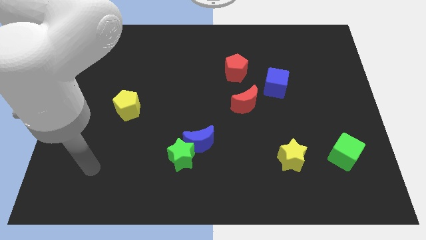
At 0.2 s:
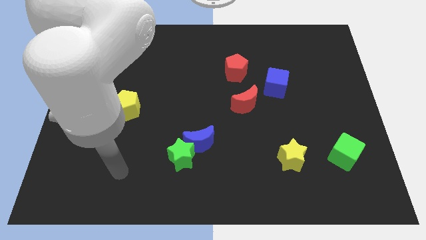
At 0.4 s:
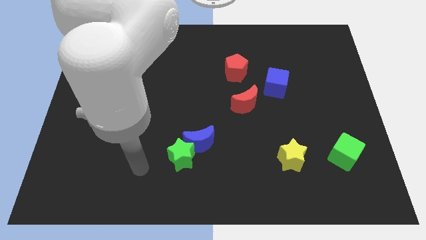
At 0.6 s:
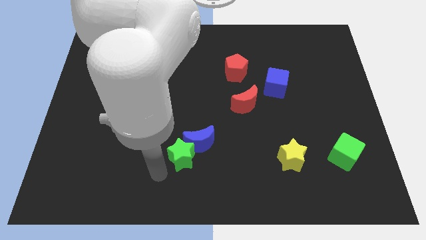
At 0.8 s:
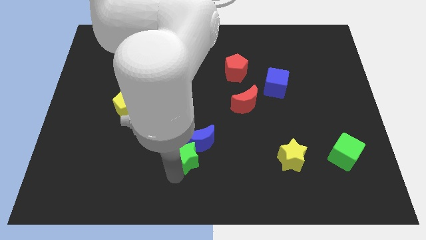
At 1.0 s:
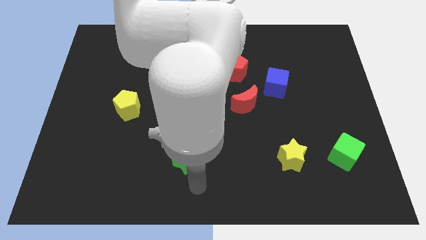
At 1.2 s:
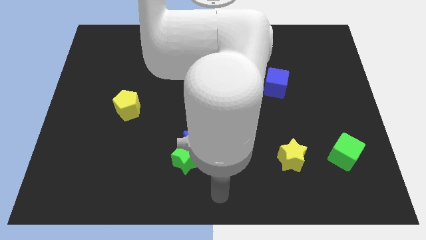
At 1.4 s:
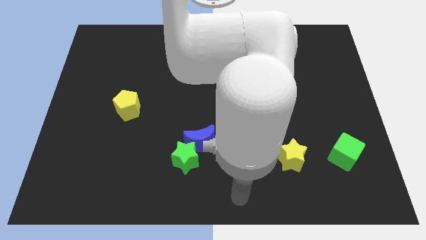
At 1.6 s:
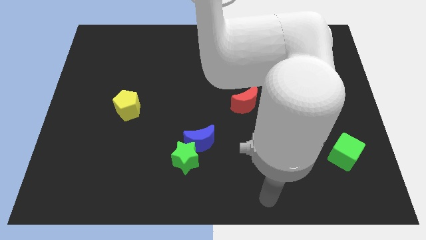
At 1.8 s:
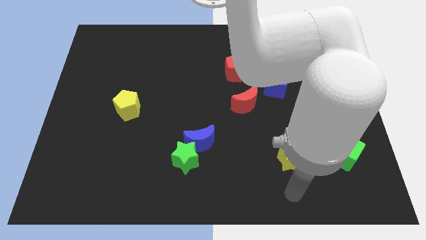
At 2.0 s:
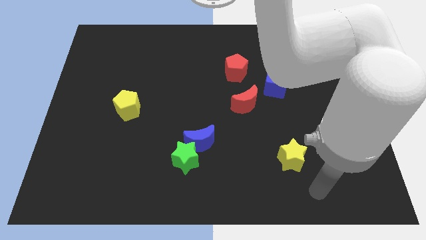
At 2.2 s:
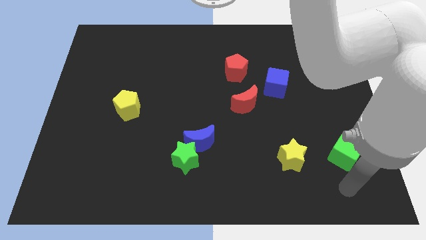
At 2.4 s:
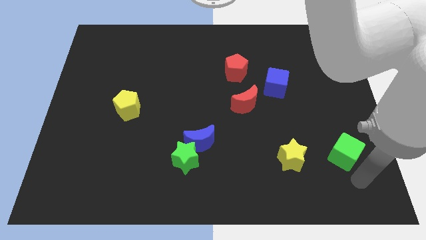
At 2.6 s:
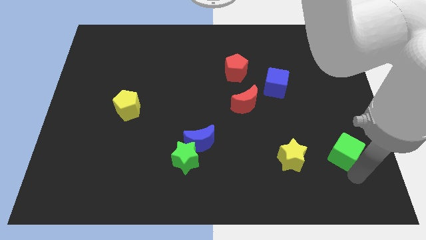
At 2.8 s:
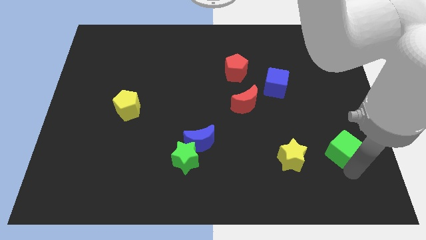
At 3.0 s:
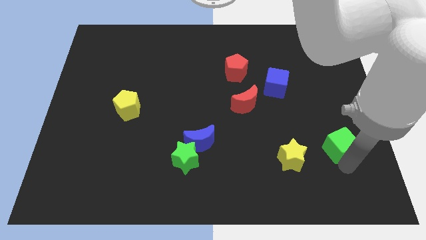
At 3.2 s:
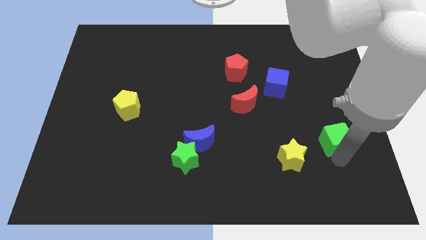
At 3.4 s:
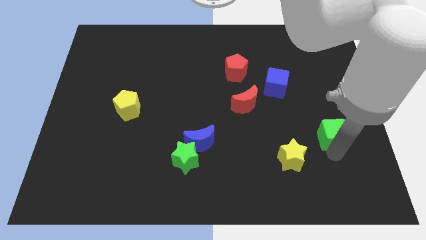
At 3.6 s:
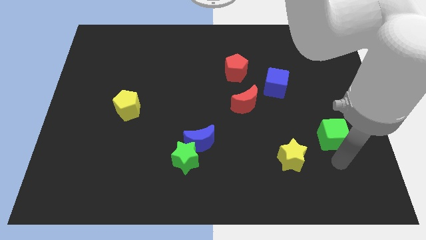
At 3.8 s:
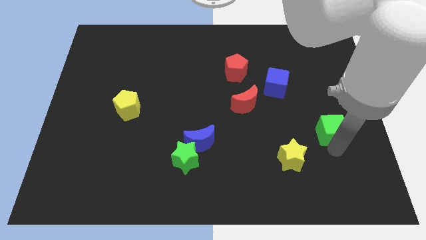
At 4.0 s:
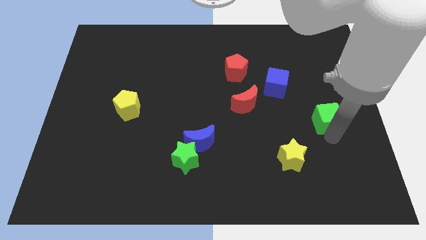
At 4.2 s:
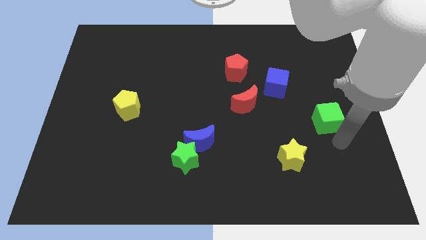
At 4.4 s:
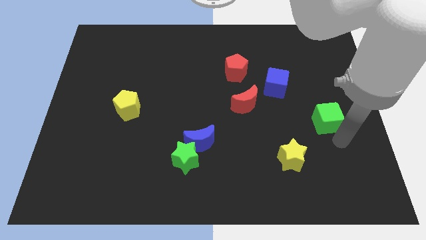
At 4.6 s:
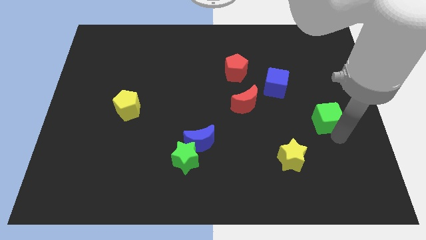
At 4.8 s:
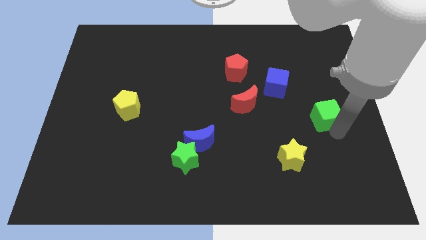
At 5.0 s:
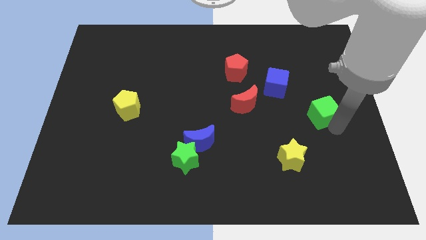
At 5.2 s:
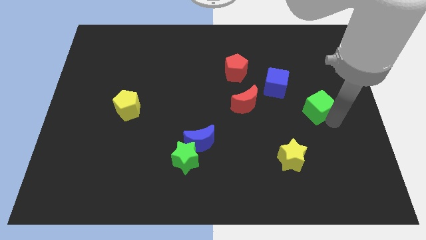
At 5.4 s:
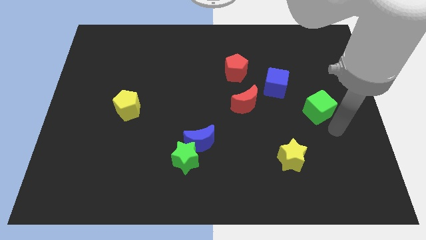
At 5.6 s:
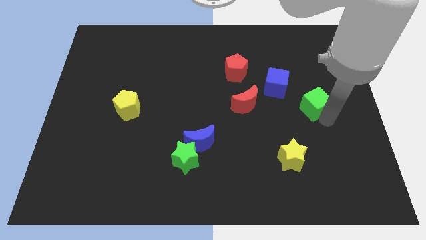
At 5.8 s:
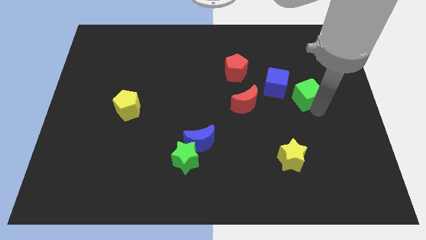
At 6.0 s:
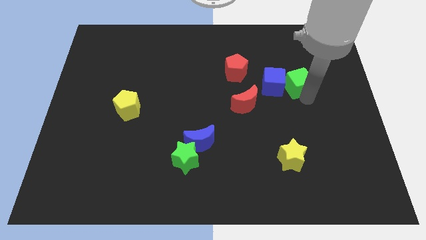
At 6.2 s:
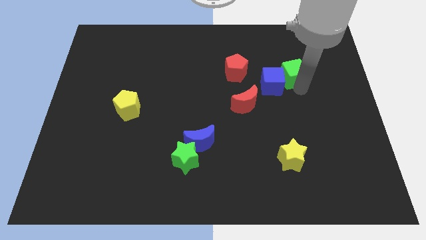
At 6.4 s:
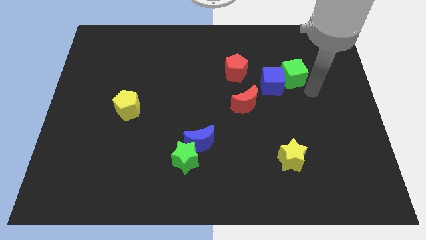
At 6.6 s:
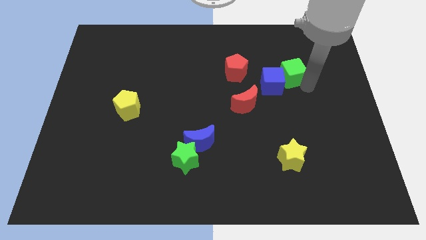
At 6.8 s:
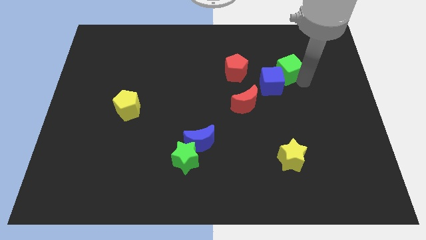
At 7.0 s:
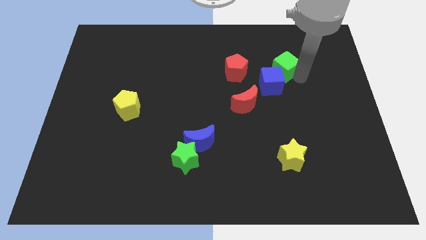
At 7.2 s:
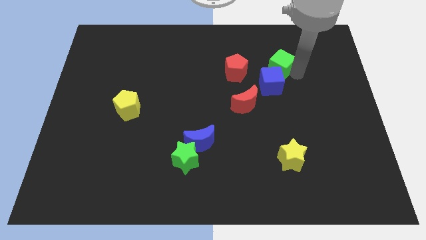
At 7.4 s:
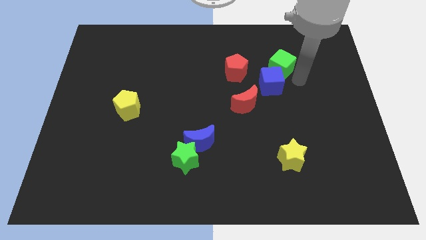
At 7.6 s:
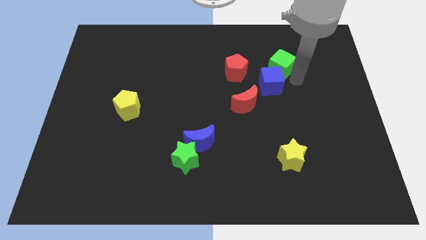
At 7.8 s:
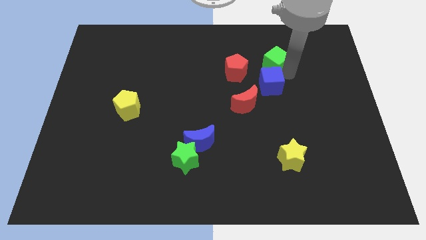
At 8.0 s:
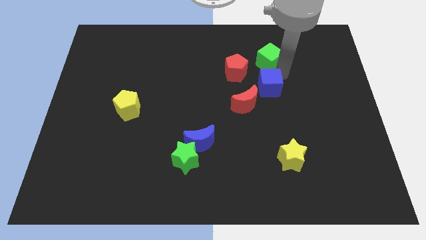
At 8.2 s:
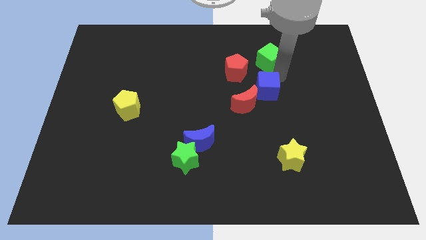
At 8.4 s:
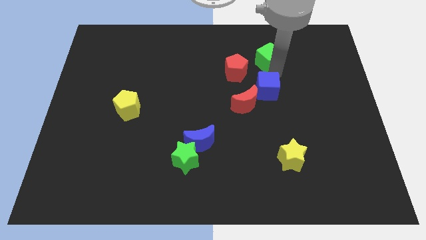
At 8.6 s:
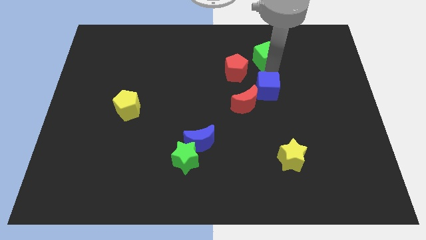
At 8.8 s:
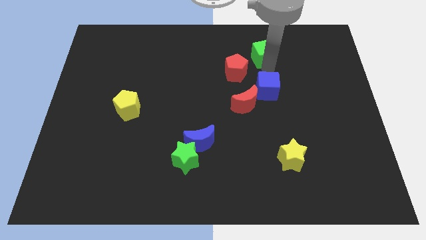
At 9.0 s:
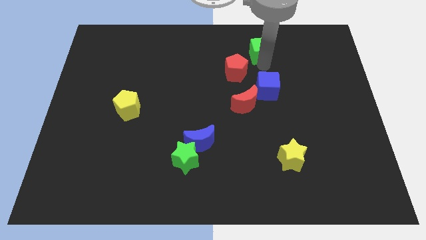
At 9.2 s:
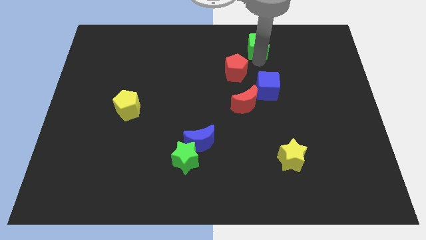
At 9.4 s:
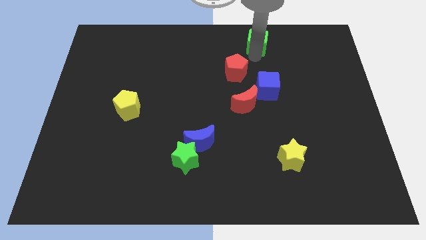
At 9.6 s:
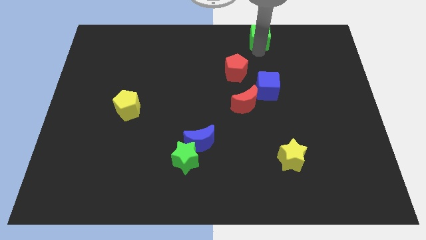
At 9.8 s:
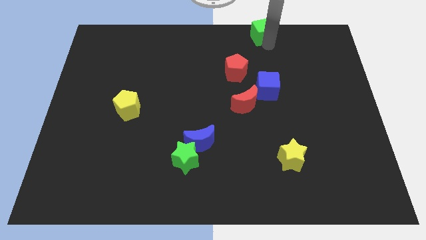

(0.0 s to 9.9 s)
move the green cube to the top side

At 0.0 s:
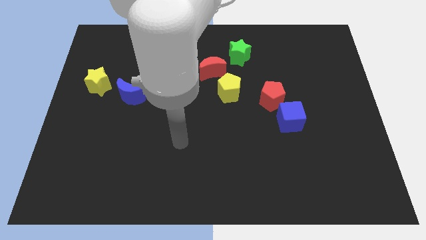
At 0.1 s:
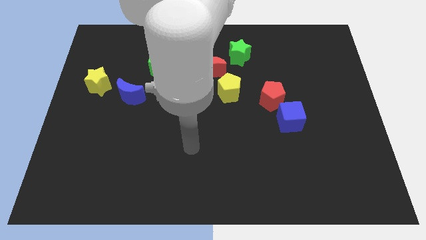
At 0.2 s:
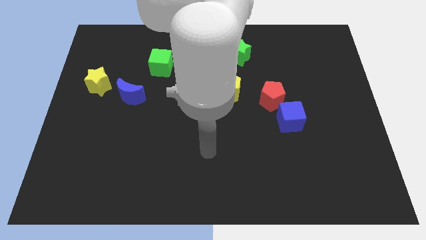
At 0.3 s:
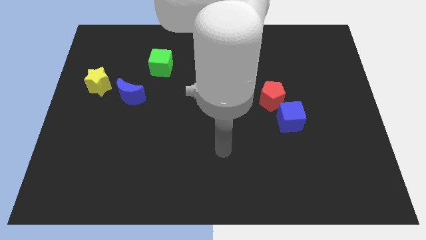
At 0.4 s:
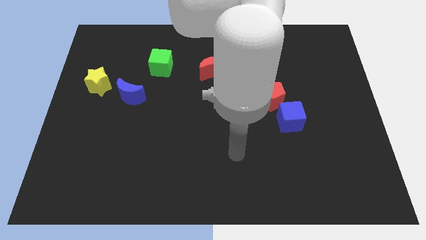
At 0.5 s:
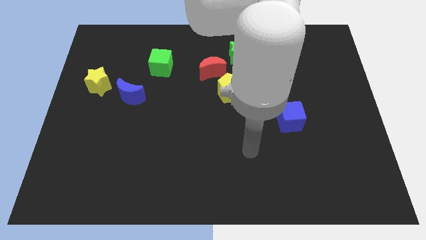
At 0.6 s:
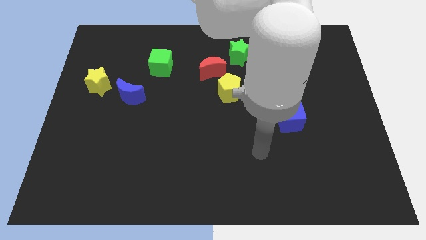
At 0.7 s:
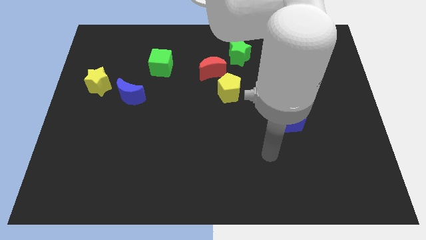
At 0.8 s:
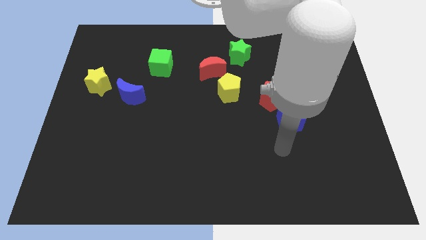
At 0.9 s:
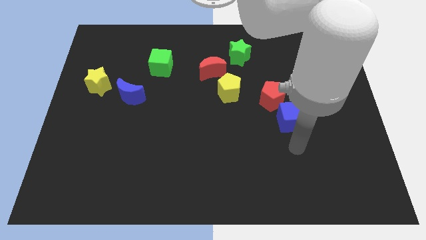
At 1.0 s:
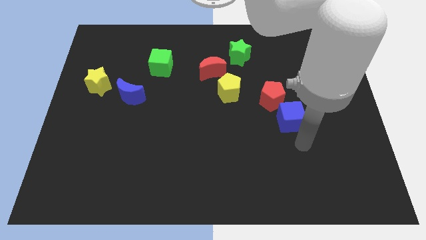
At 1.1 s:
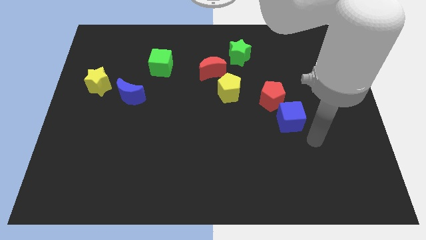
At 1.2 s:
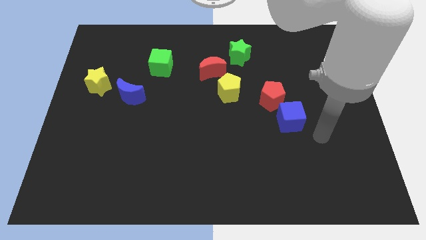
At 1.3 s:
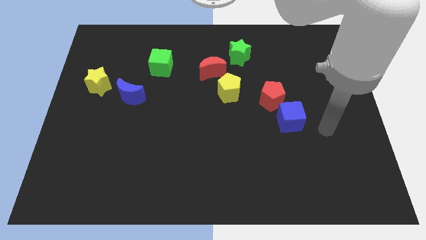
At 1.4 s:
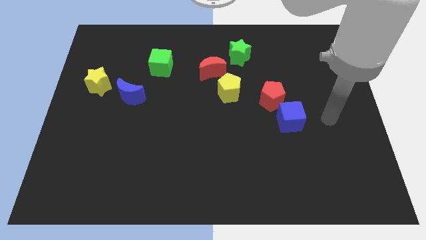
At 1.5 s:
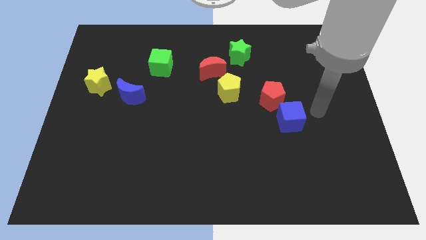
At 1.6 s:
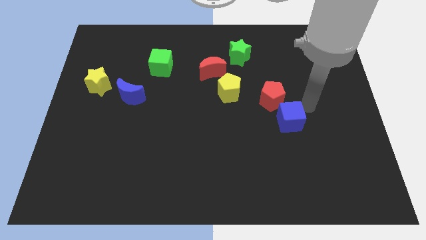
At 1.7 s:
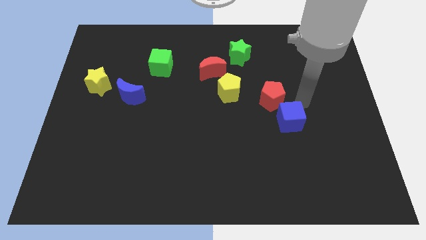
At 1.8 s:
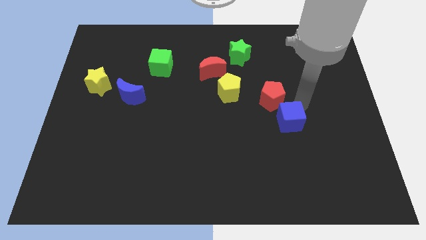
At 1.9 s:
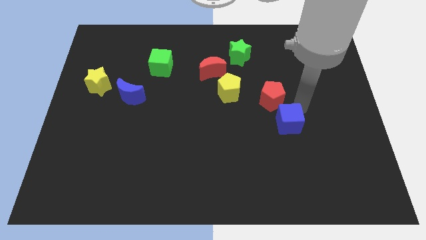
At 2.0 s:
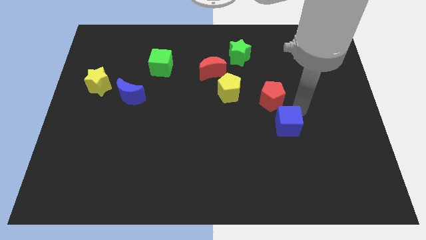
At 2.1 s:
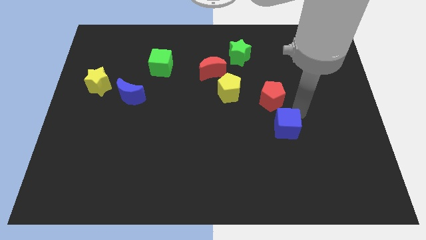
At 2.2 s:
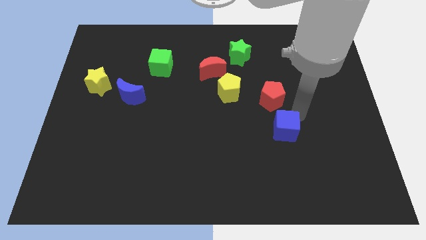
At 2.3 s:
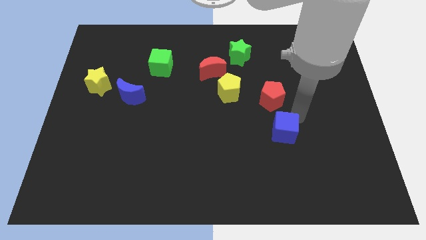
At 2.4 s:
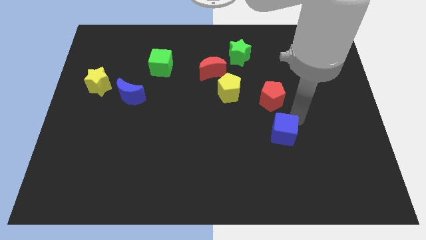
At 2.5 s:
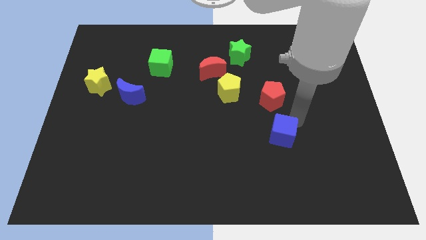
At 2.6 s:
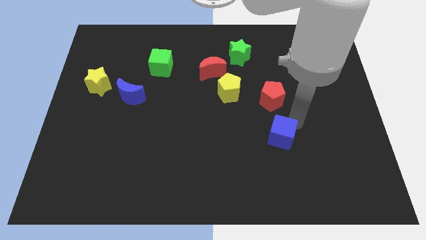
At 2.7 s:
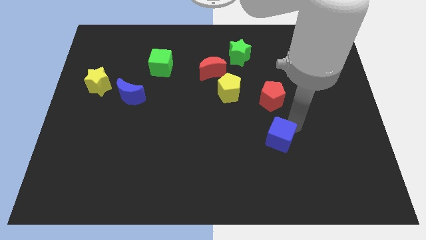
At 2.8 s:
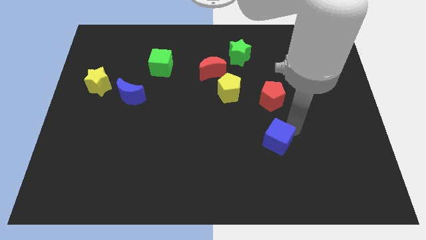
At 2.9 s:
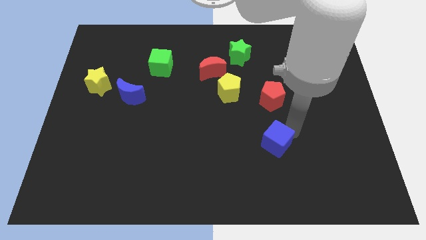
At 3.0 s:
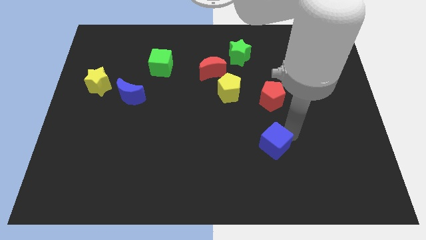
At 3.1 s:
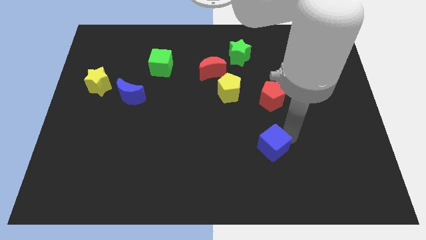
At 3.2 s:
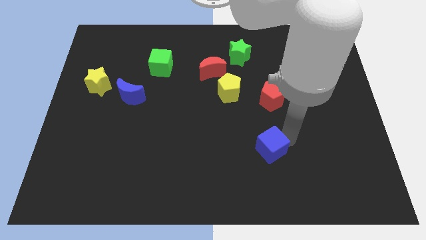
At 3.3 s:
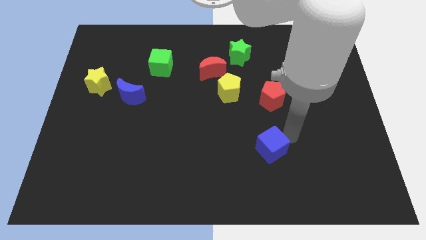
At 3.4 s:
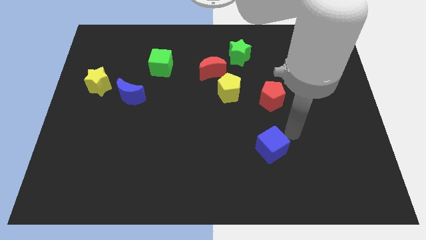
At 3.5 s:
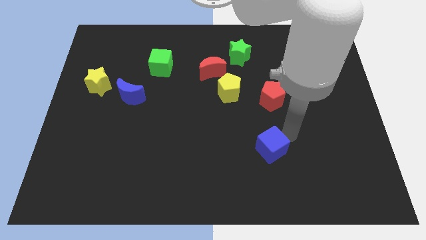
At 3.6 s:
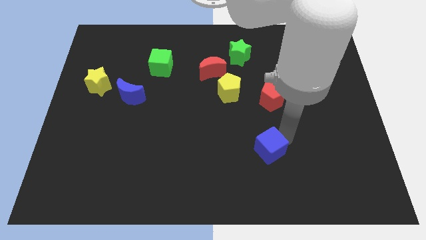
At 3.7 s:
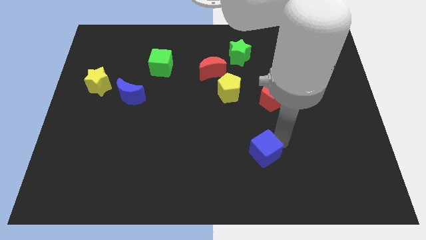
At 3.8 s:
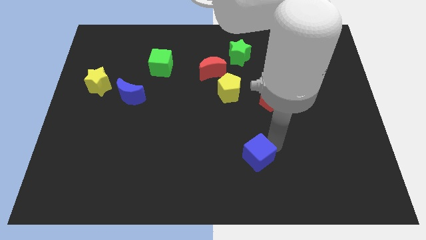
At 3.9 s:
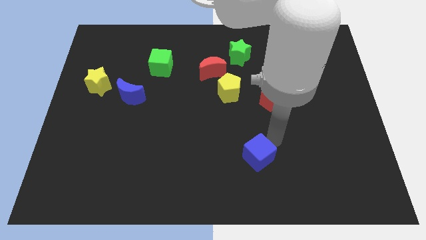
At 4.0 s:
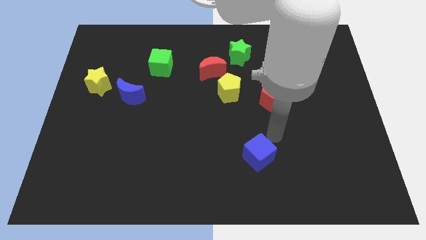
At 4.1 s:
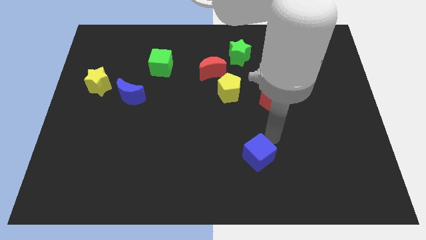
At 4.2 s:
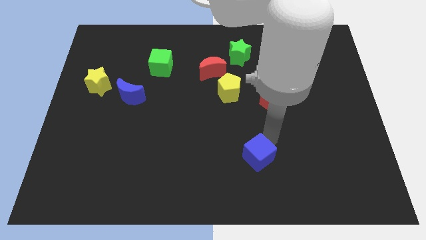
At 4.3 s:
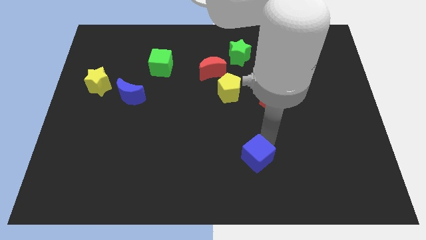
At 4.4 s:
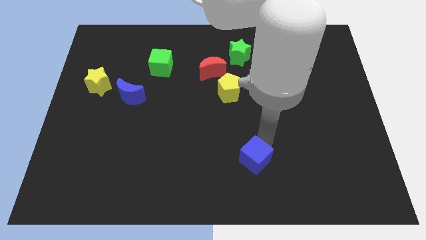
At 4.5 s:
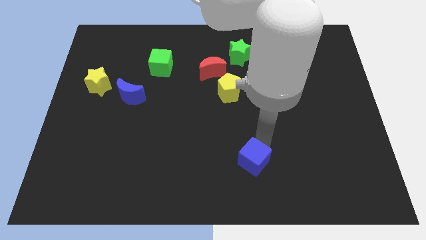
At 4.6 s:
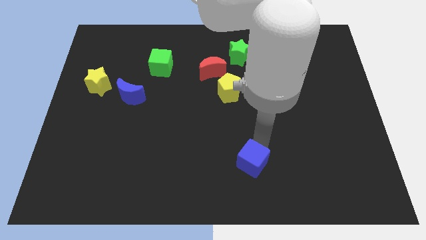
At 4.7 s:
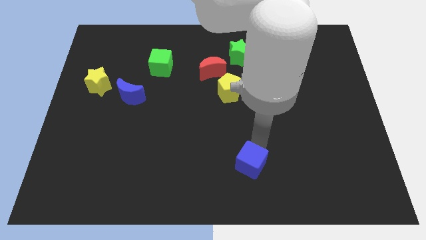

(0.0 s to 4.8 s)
push the blue cube to the bottom
